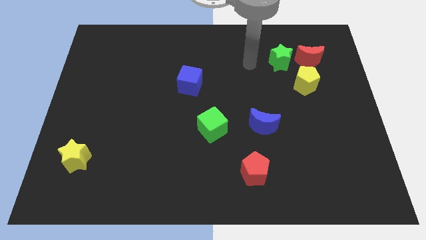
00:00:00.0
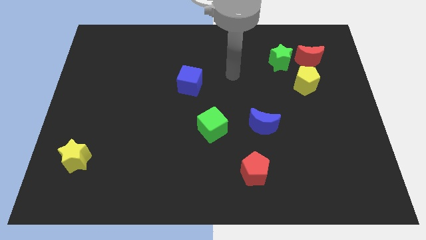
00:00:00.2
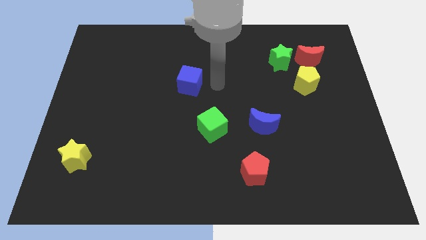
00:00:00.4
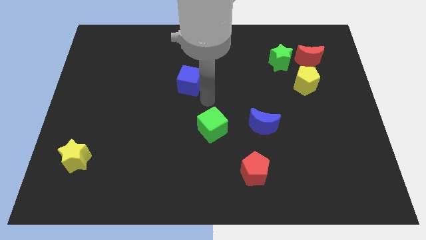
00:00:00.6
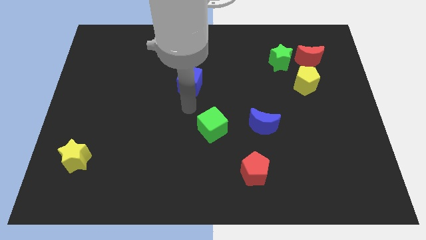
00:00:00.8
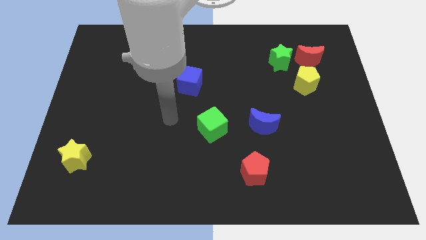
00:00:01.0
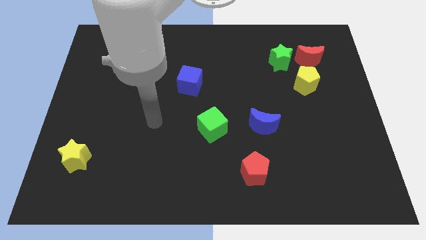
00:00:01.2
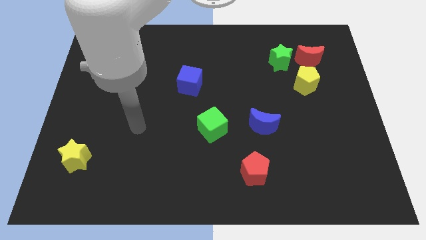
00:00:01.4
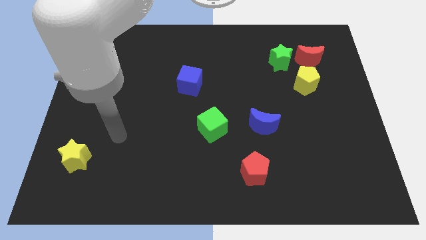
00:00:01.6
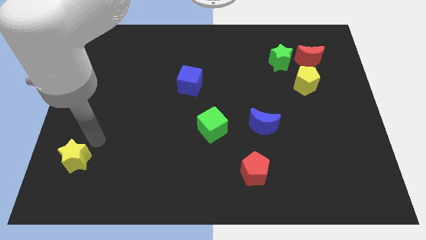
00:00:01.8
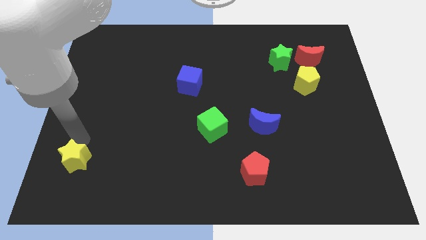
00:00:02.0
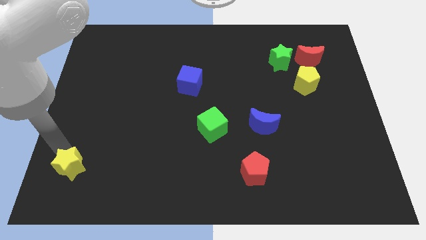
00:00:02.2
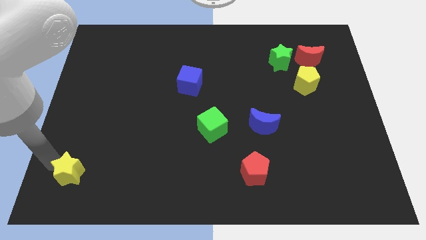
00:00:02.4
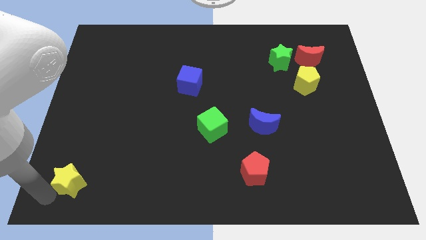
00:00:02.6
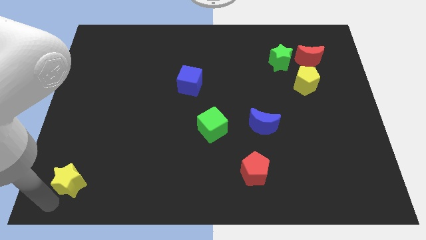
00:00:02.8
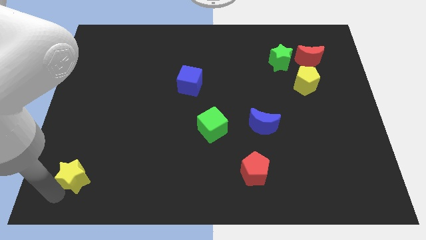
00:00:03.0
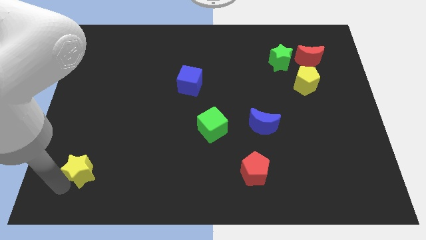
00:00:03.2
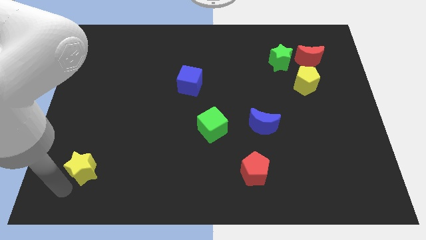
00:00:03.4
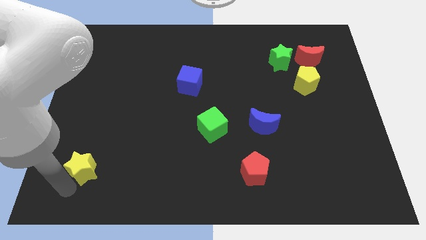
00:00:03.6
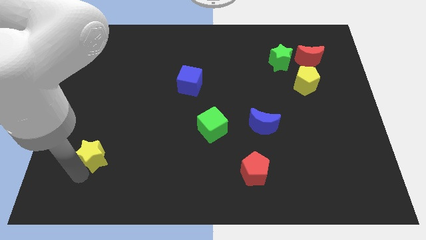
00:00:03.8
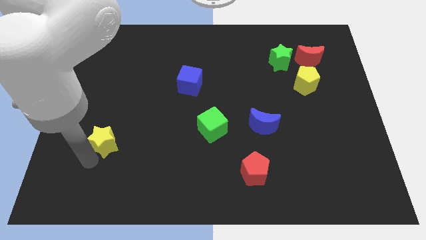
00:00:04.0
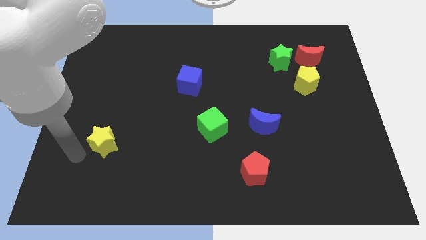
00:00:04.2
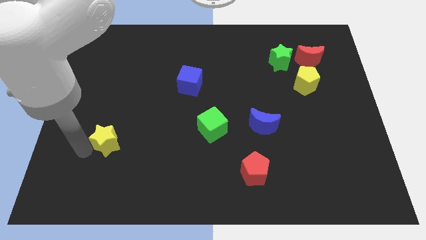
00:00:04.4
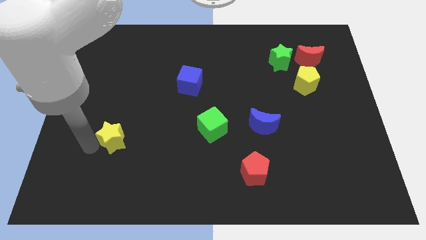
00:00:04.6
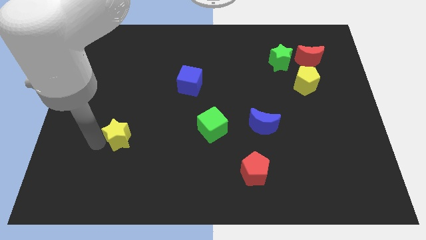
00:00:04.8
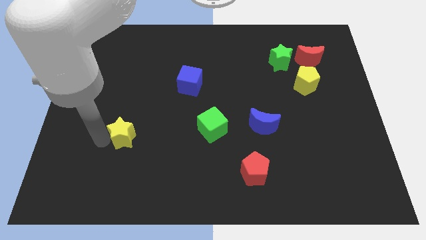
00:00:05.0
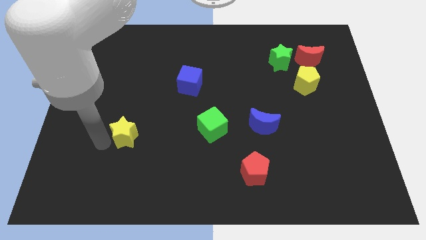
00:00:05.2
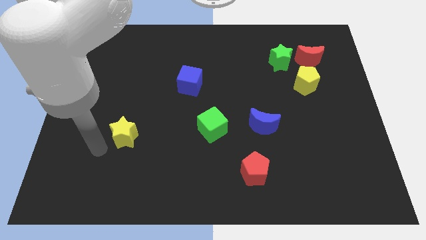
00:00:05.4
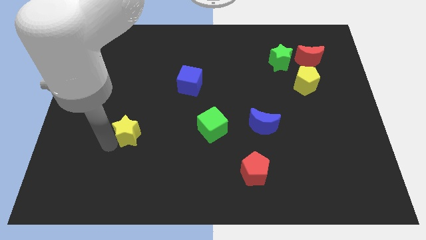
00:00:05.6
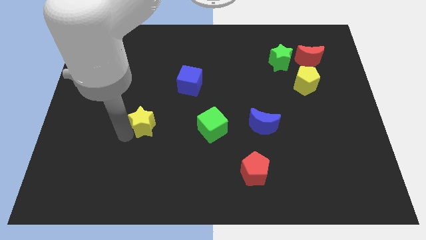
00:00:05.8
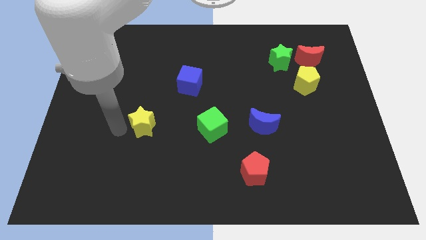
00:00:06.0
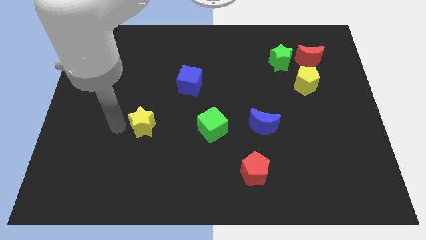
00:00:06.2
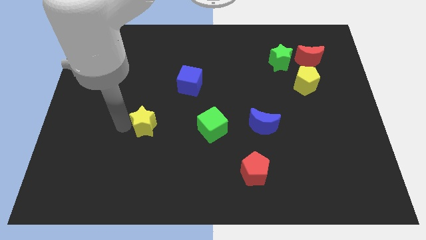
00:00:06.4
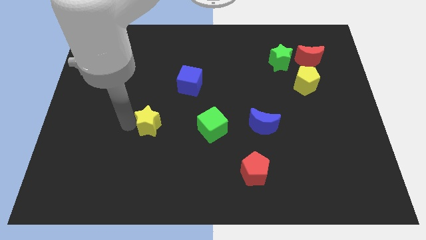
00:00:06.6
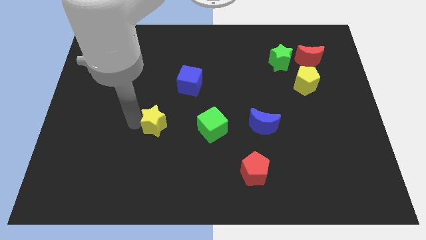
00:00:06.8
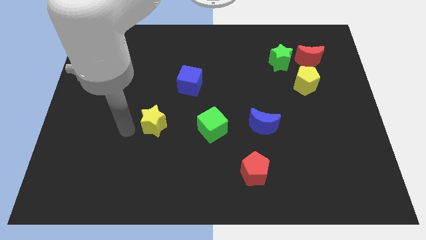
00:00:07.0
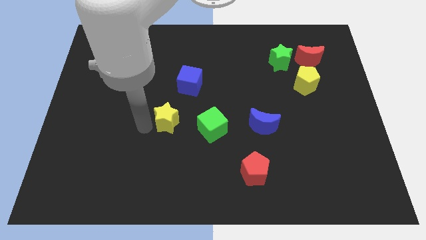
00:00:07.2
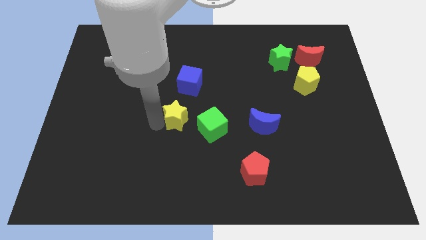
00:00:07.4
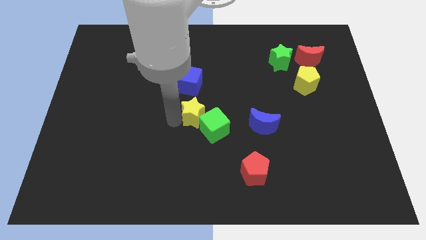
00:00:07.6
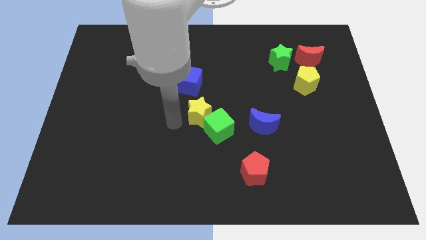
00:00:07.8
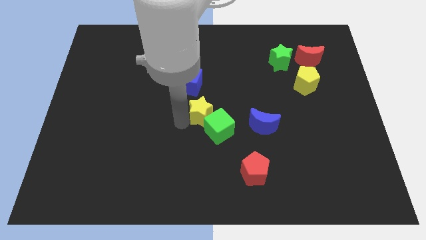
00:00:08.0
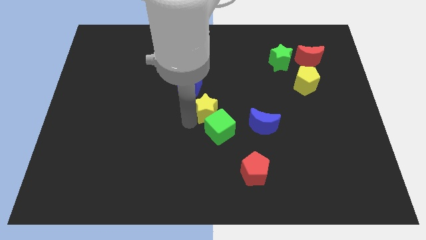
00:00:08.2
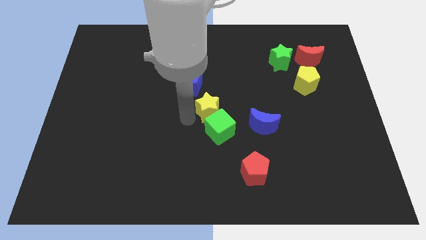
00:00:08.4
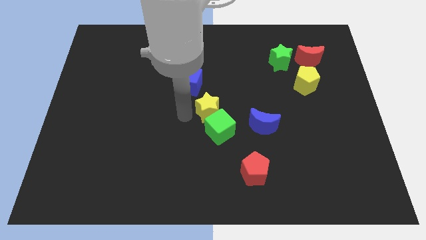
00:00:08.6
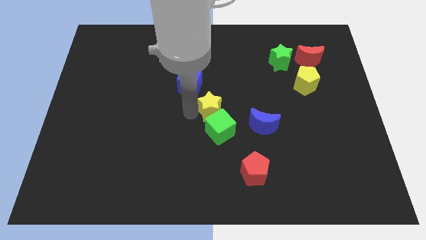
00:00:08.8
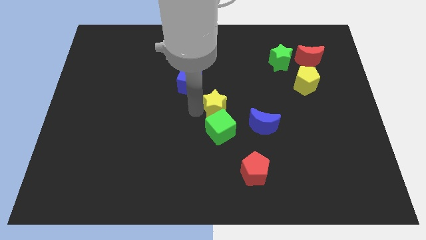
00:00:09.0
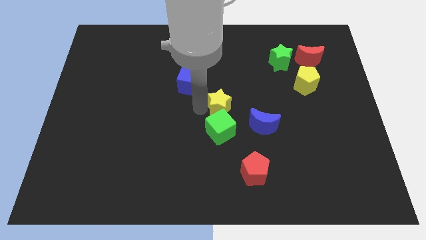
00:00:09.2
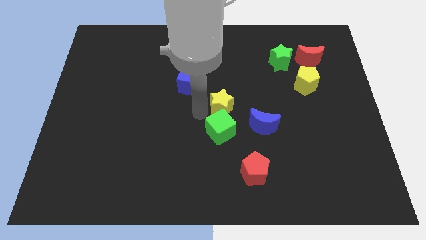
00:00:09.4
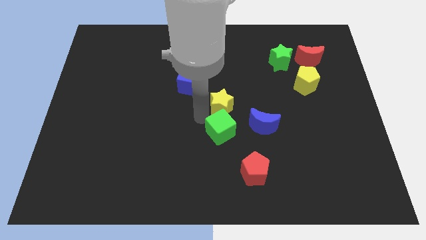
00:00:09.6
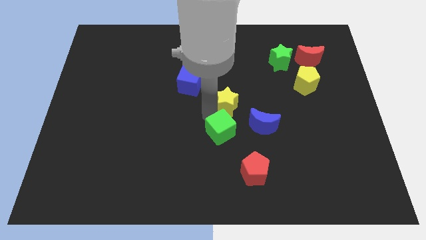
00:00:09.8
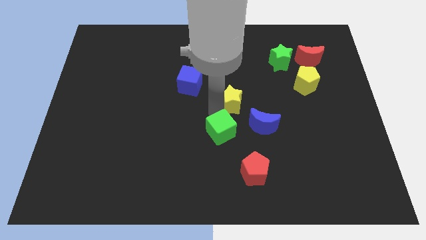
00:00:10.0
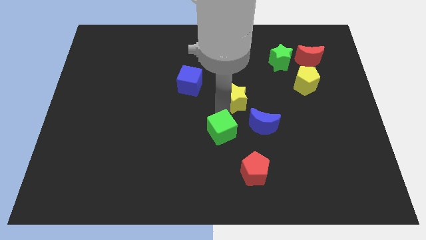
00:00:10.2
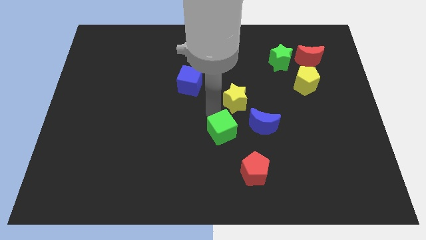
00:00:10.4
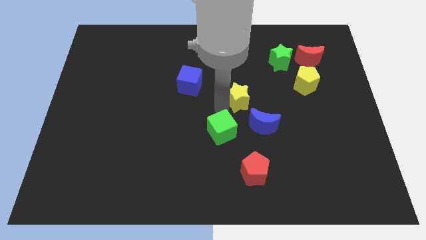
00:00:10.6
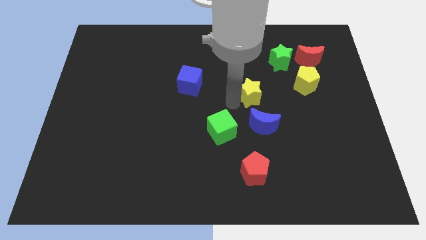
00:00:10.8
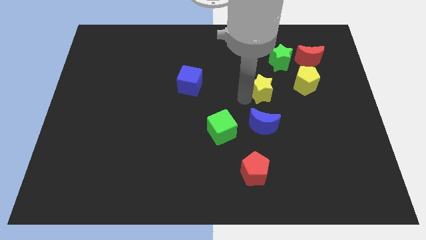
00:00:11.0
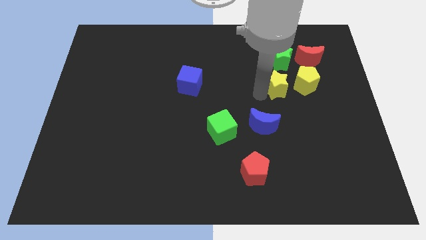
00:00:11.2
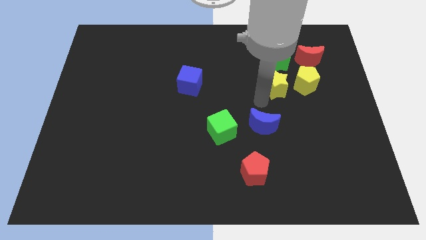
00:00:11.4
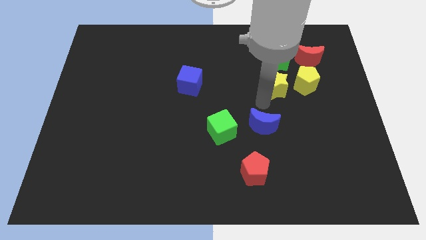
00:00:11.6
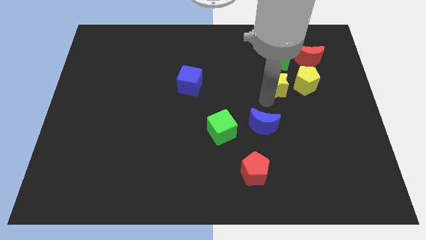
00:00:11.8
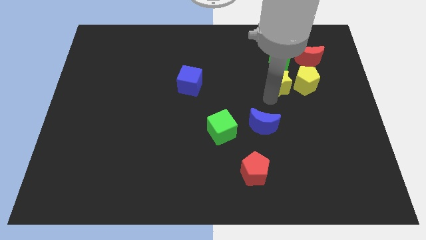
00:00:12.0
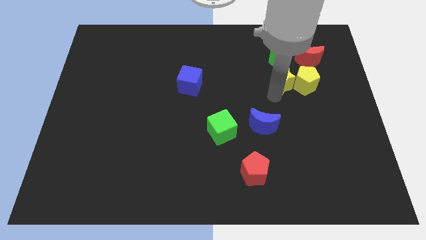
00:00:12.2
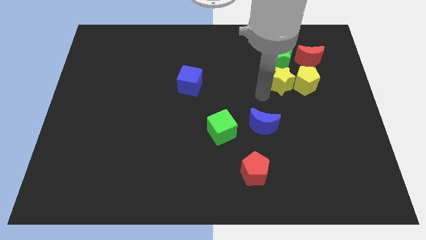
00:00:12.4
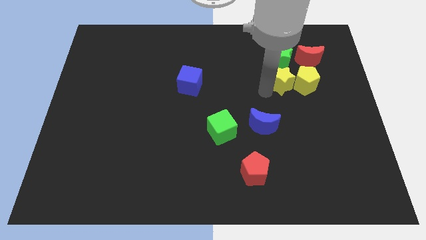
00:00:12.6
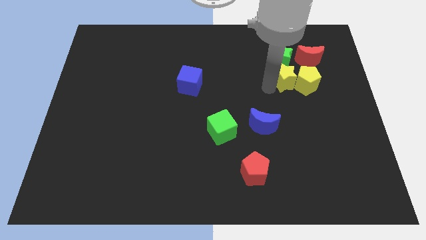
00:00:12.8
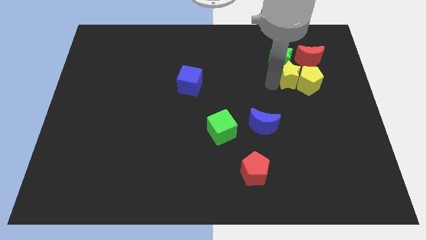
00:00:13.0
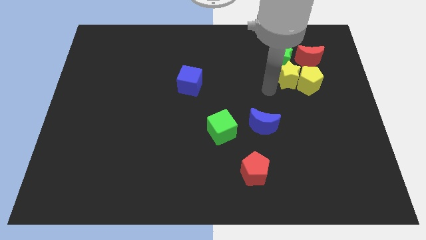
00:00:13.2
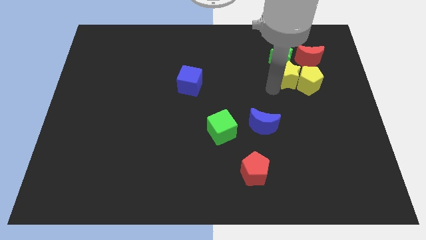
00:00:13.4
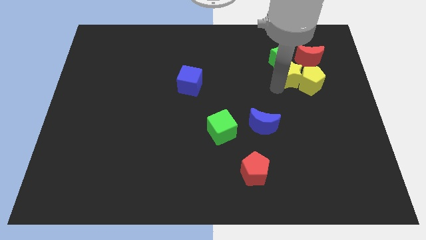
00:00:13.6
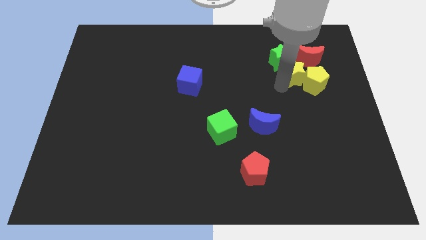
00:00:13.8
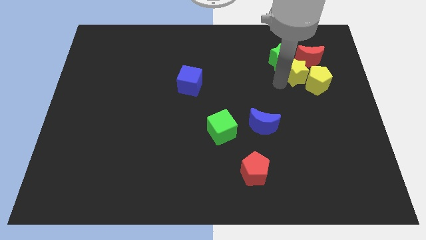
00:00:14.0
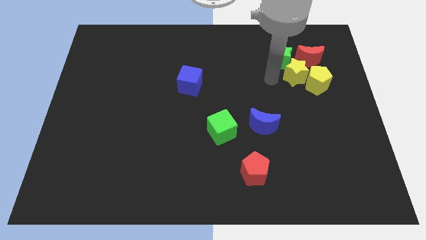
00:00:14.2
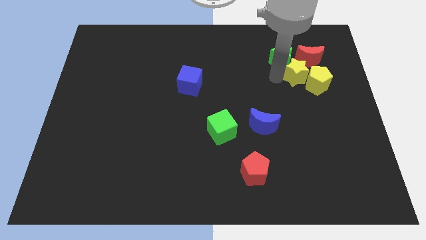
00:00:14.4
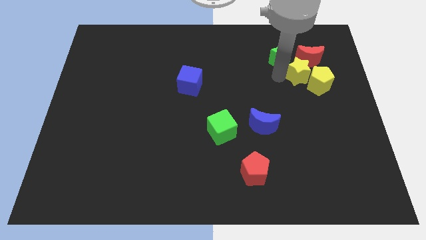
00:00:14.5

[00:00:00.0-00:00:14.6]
slide the yellow star to the right of the green star

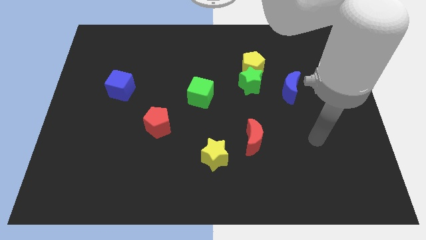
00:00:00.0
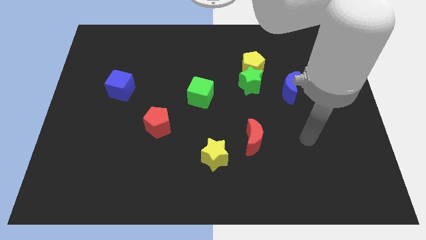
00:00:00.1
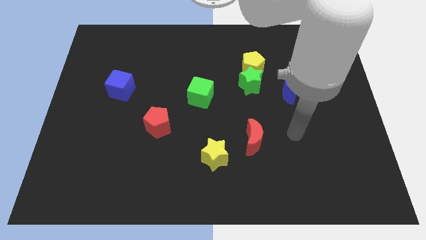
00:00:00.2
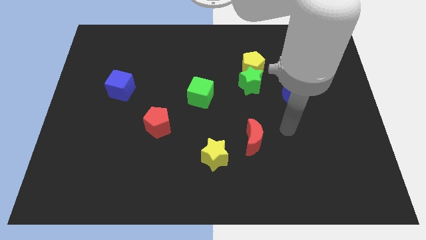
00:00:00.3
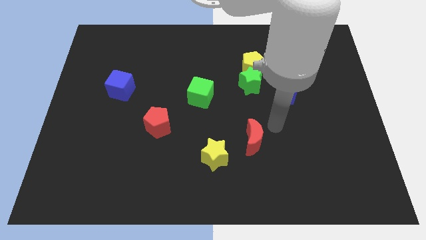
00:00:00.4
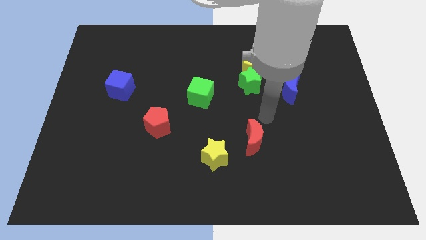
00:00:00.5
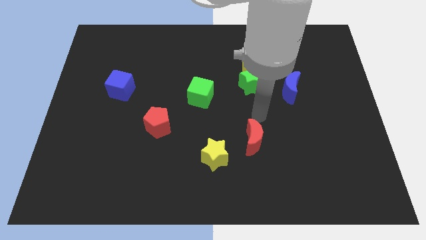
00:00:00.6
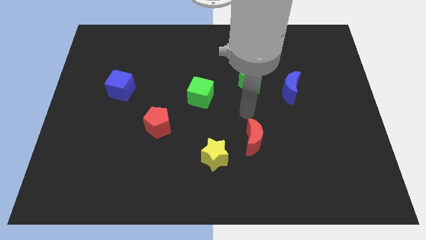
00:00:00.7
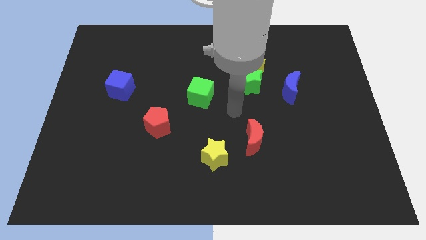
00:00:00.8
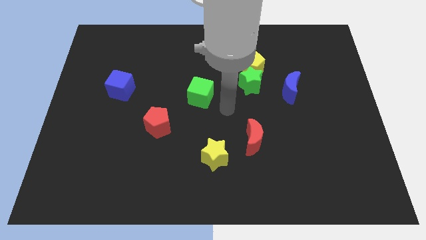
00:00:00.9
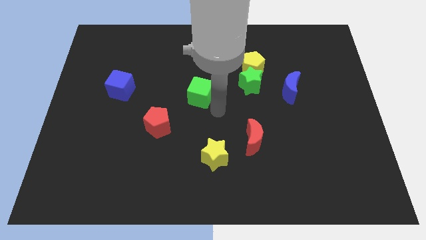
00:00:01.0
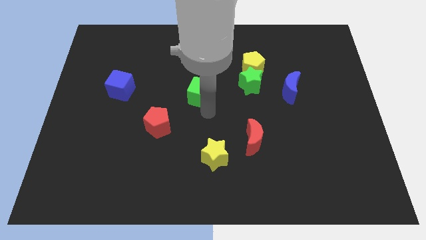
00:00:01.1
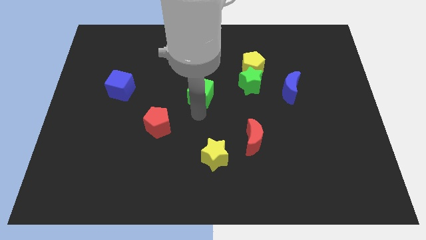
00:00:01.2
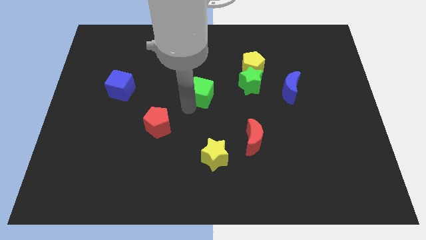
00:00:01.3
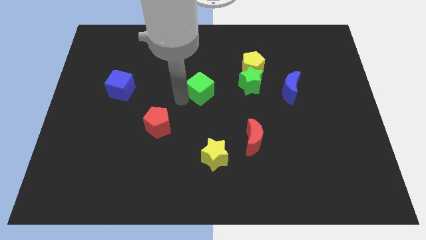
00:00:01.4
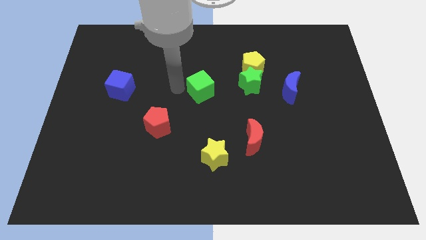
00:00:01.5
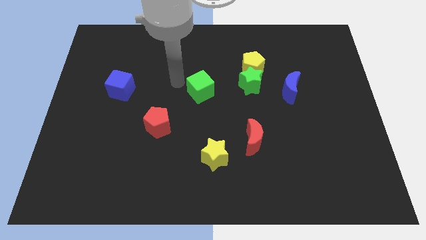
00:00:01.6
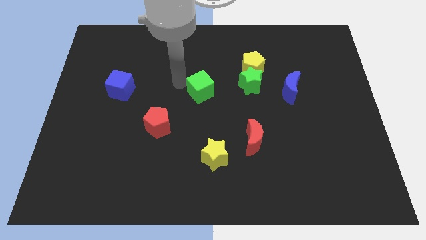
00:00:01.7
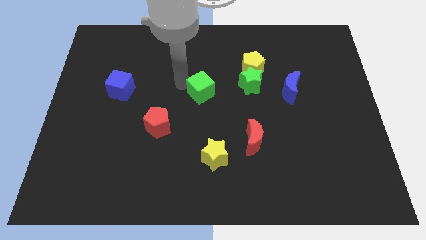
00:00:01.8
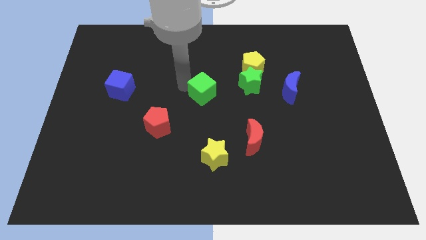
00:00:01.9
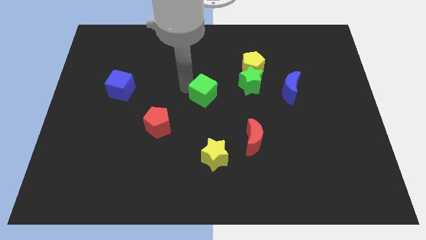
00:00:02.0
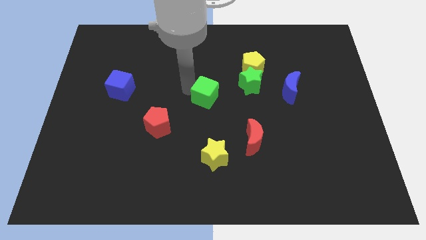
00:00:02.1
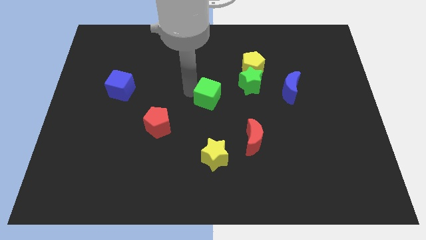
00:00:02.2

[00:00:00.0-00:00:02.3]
push the green cube to the bottom left of the green star
